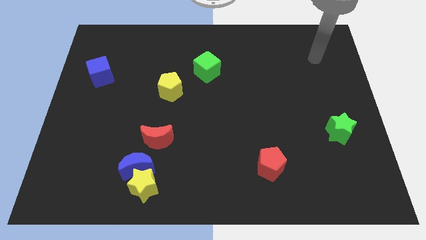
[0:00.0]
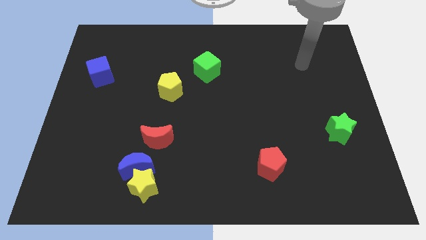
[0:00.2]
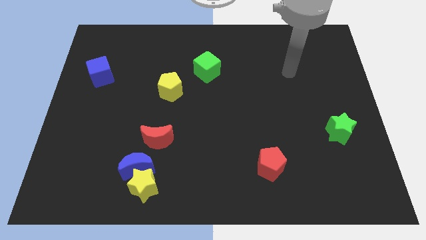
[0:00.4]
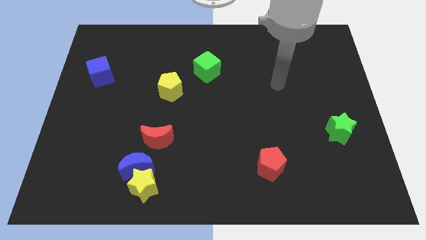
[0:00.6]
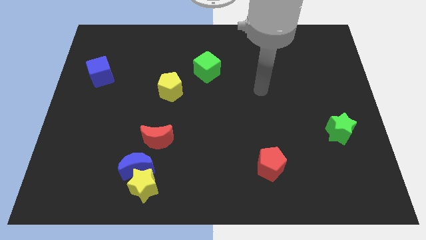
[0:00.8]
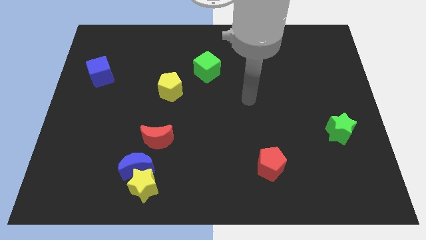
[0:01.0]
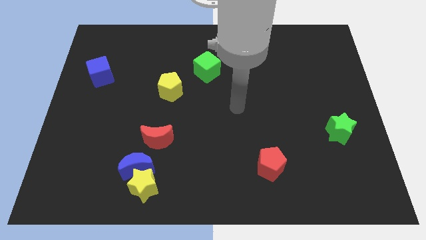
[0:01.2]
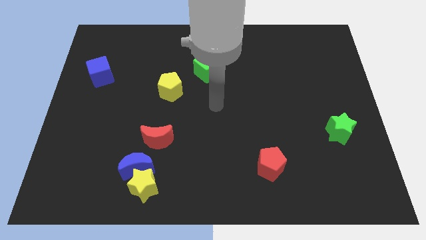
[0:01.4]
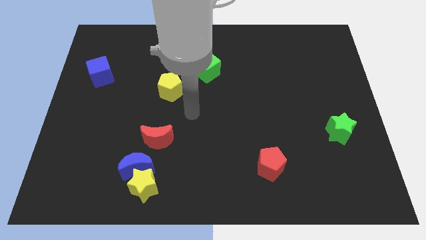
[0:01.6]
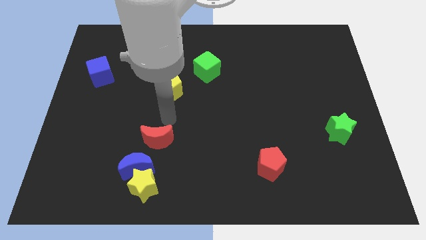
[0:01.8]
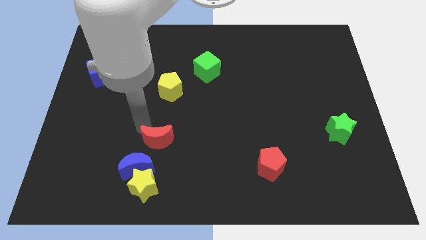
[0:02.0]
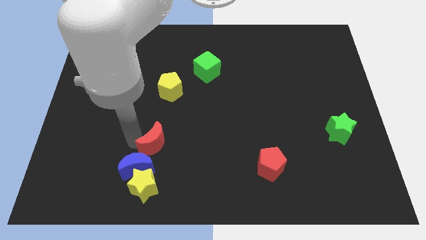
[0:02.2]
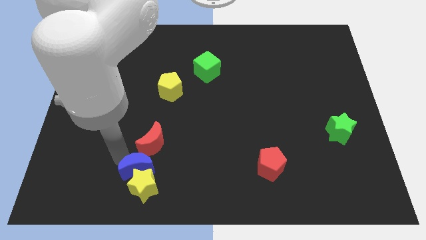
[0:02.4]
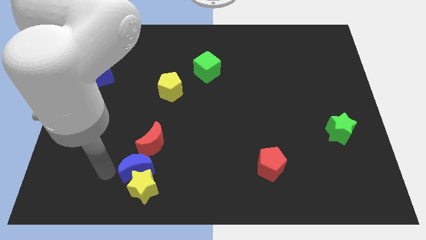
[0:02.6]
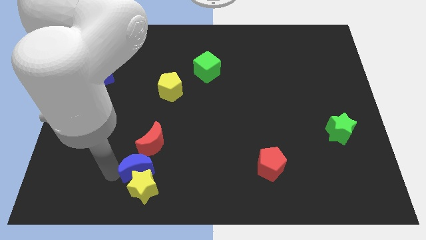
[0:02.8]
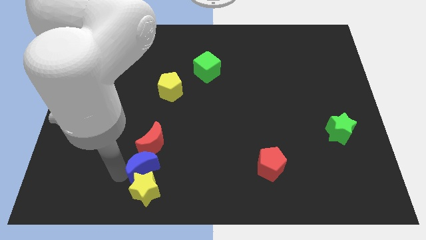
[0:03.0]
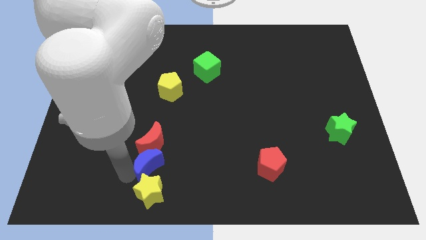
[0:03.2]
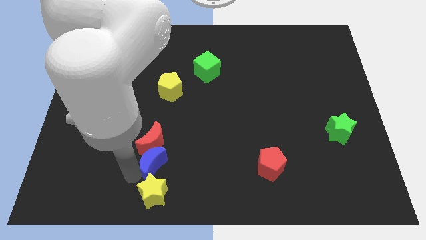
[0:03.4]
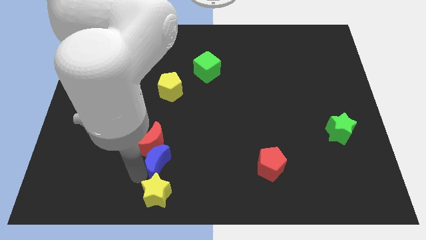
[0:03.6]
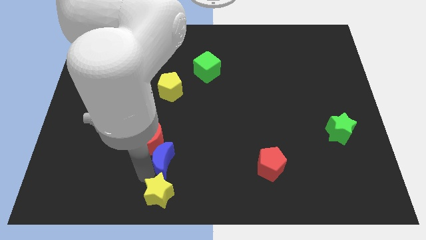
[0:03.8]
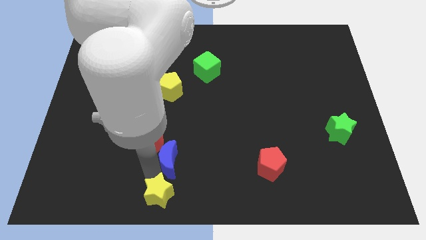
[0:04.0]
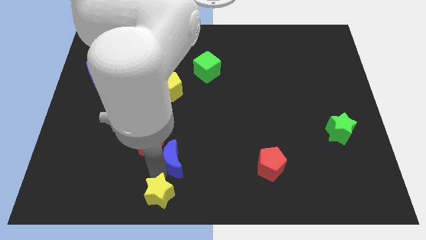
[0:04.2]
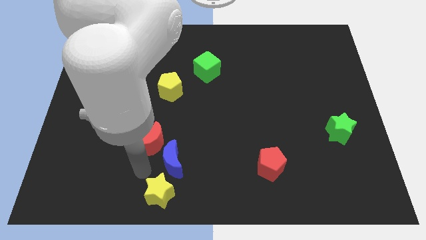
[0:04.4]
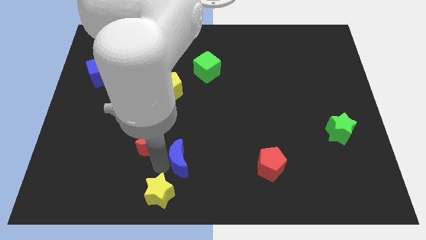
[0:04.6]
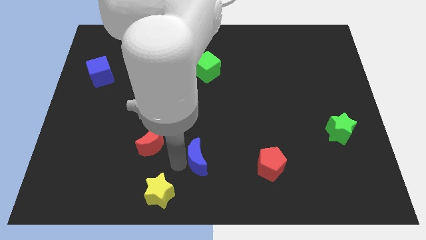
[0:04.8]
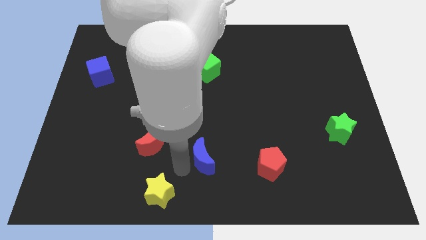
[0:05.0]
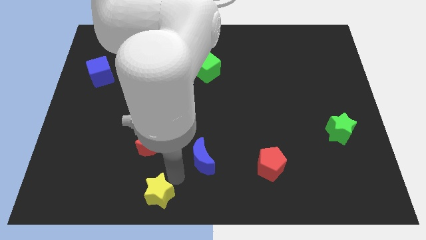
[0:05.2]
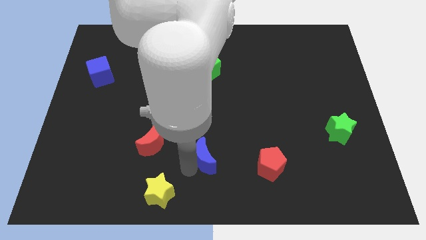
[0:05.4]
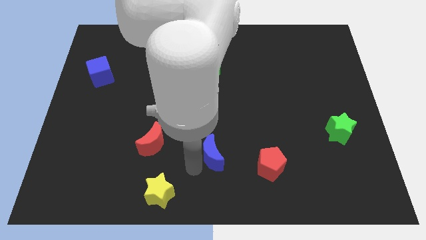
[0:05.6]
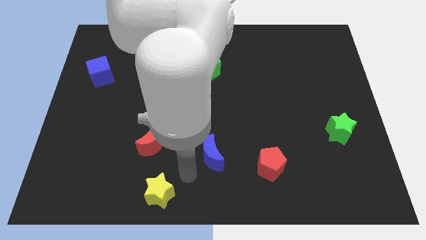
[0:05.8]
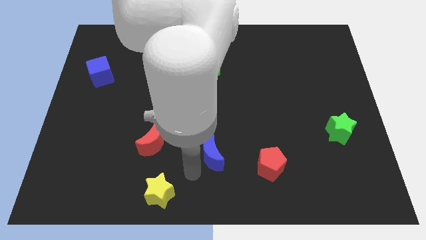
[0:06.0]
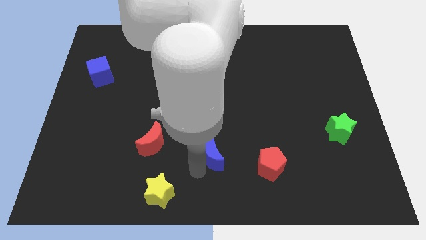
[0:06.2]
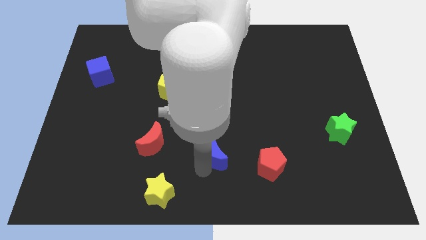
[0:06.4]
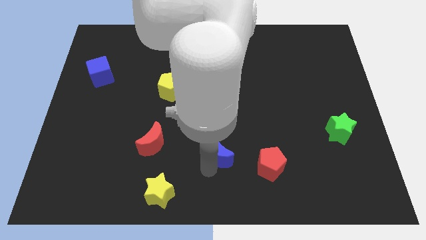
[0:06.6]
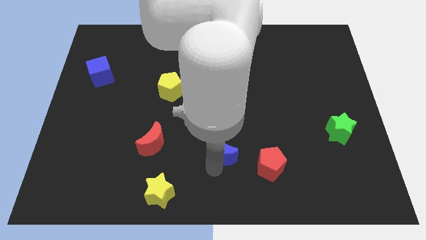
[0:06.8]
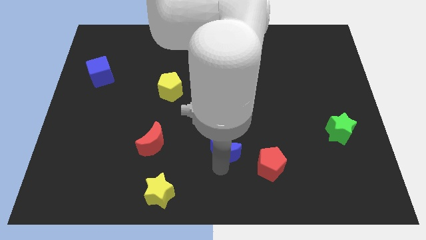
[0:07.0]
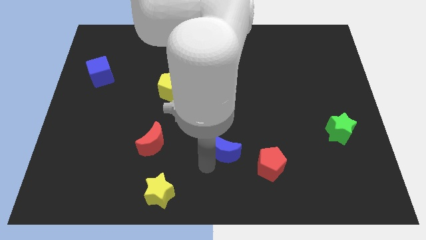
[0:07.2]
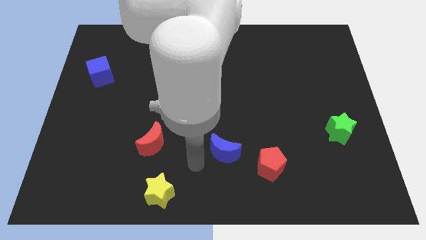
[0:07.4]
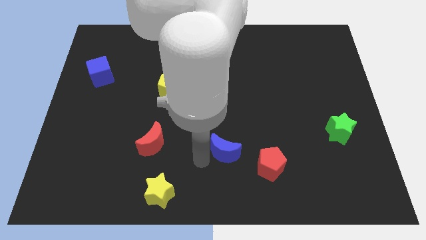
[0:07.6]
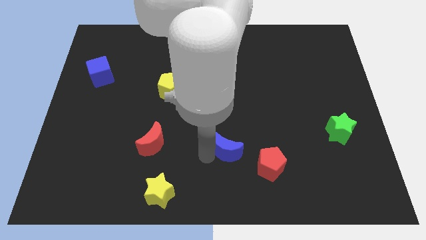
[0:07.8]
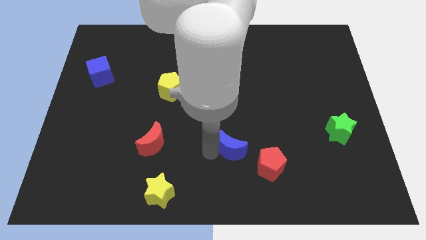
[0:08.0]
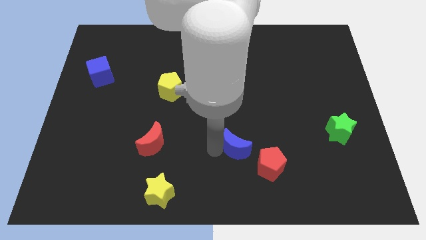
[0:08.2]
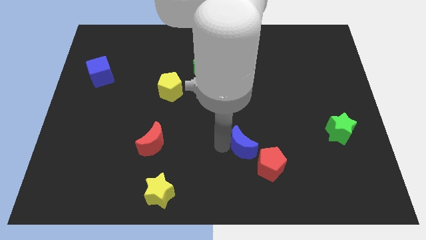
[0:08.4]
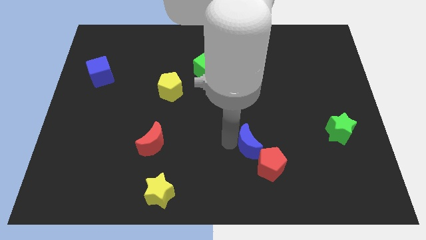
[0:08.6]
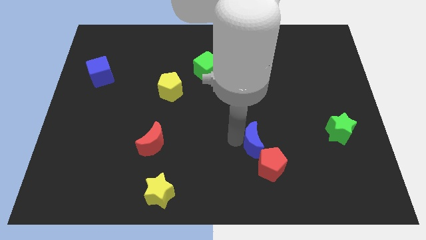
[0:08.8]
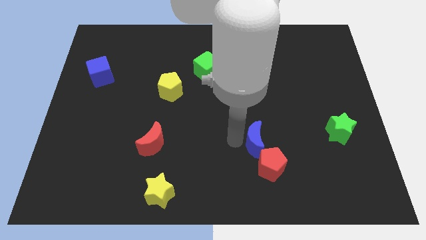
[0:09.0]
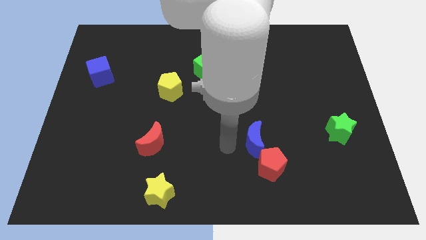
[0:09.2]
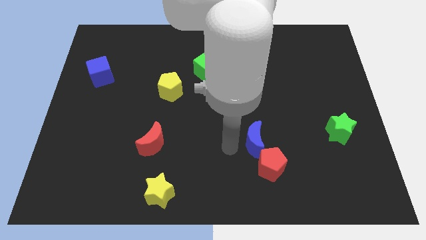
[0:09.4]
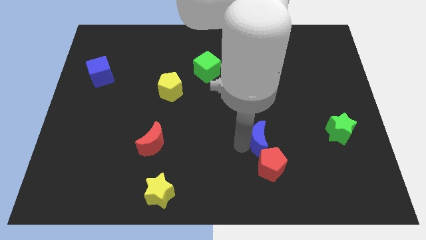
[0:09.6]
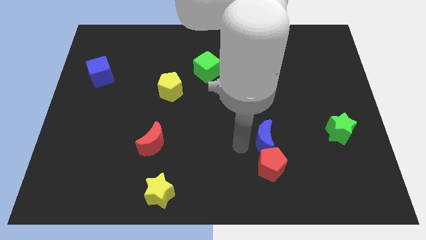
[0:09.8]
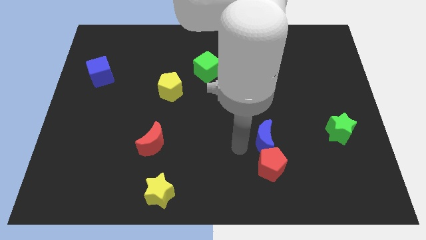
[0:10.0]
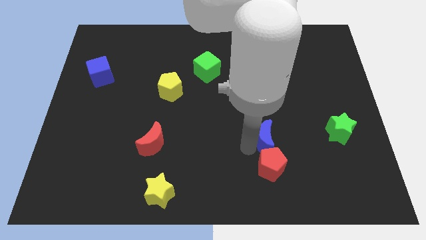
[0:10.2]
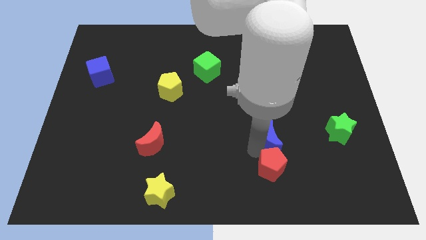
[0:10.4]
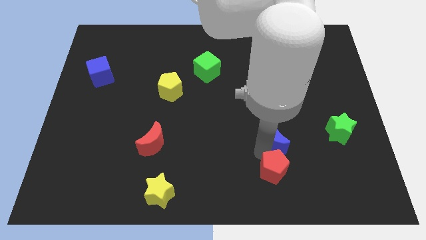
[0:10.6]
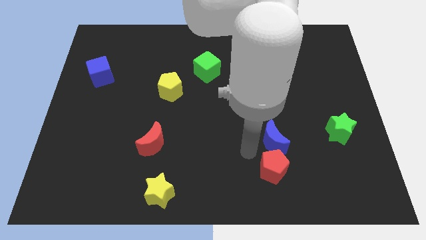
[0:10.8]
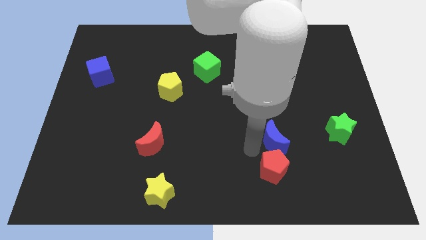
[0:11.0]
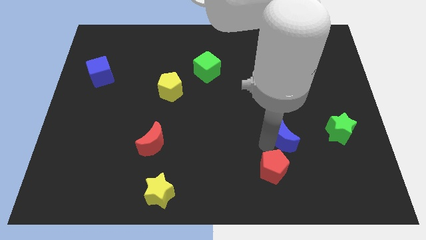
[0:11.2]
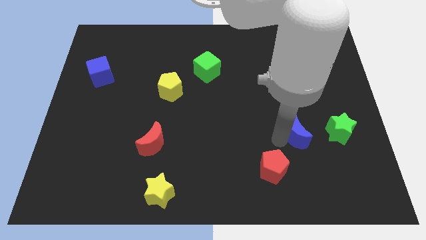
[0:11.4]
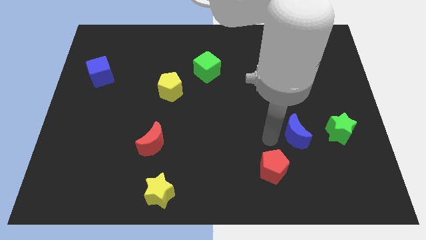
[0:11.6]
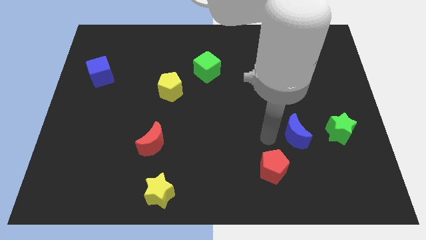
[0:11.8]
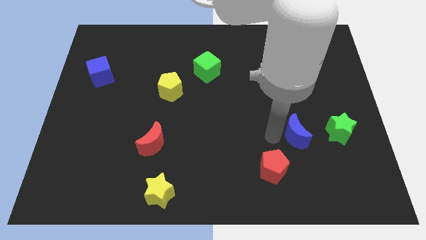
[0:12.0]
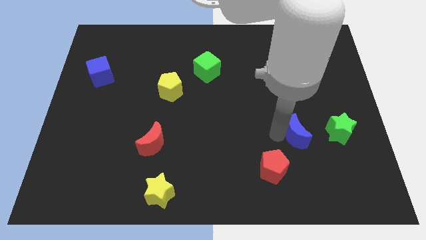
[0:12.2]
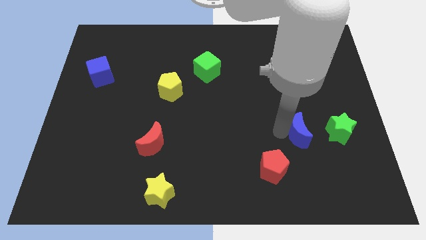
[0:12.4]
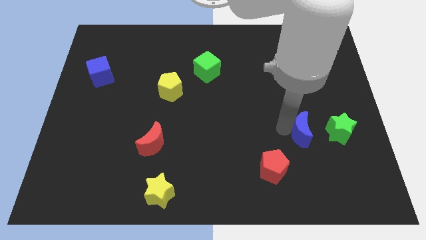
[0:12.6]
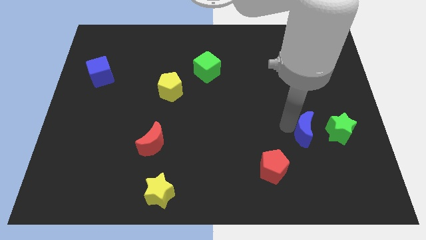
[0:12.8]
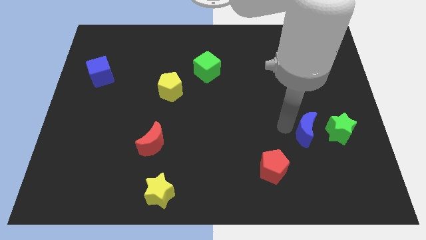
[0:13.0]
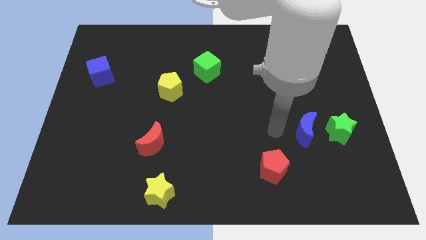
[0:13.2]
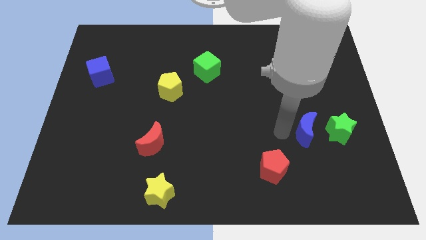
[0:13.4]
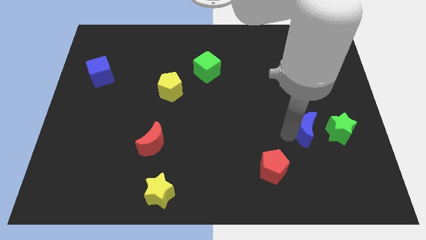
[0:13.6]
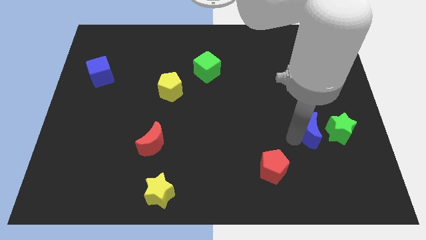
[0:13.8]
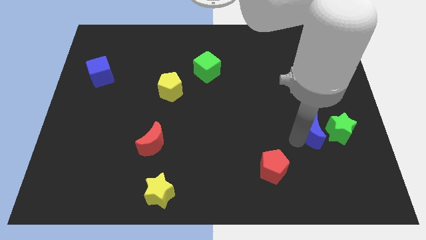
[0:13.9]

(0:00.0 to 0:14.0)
put the blue moon to the green star
